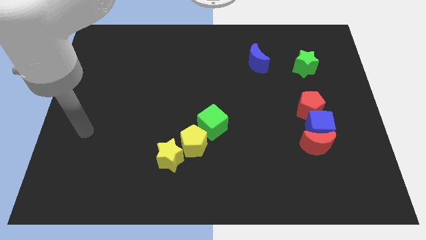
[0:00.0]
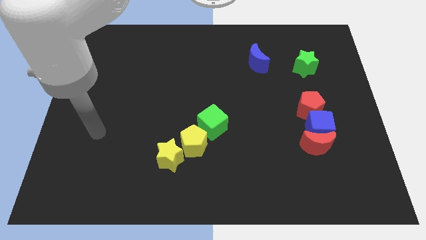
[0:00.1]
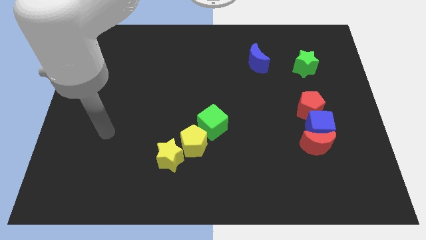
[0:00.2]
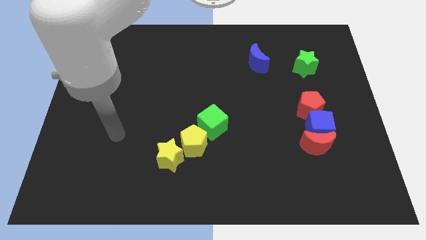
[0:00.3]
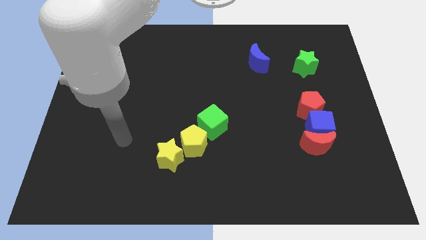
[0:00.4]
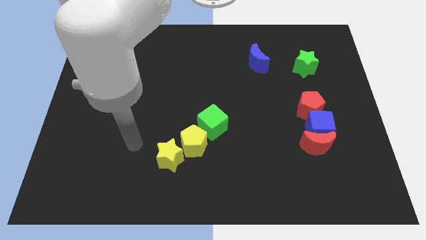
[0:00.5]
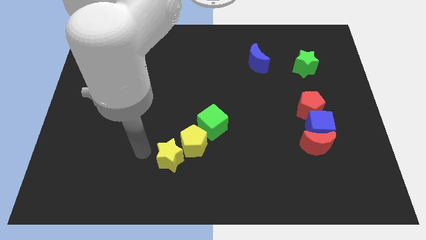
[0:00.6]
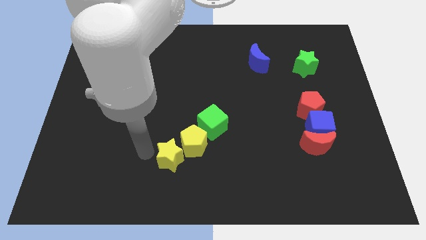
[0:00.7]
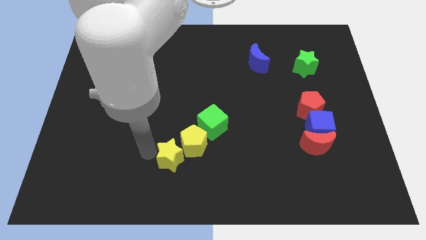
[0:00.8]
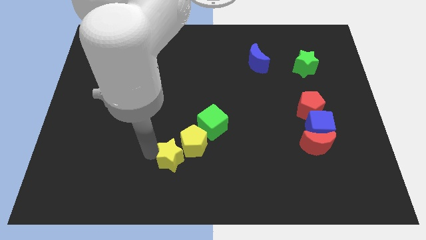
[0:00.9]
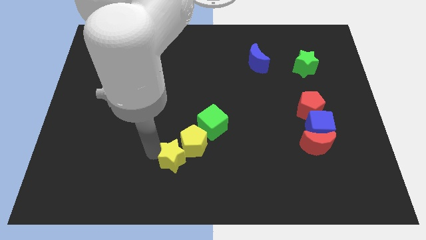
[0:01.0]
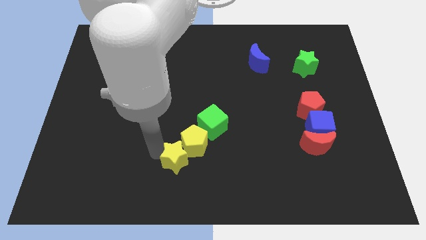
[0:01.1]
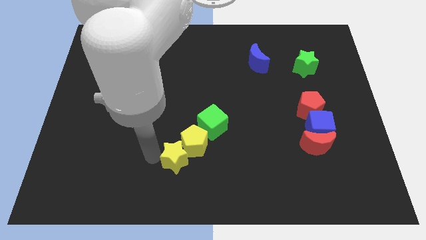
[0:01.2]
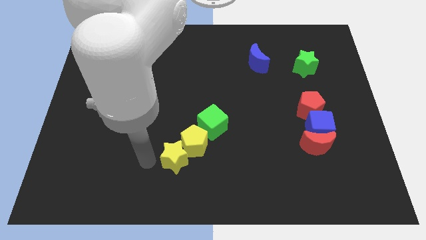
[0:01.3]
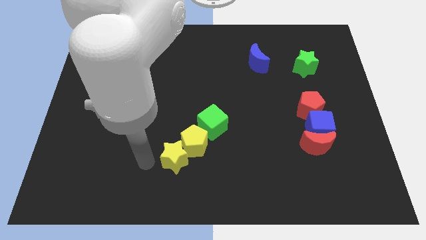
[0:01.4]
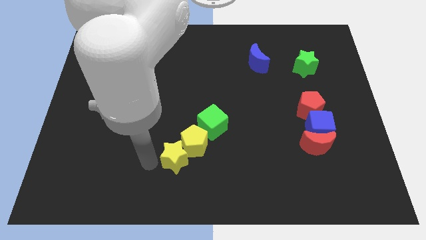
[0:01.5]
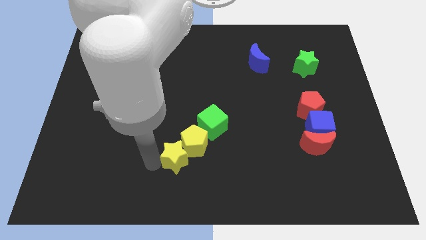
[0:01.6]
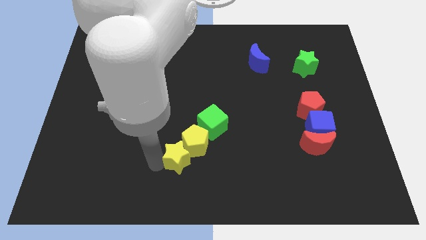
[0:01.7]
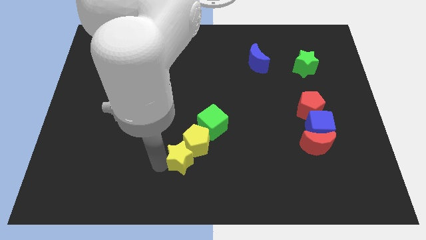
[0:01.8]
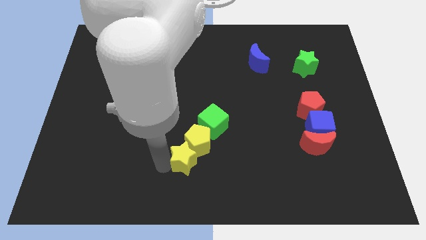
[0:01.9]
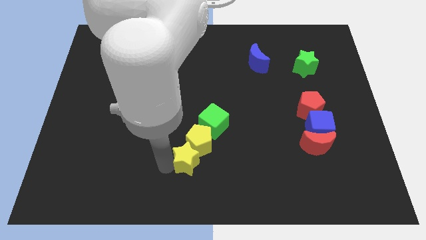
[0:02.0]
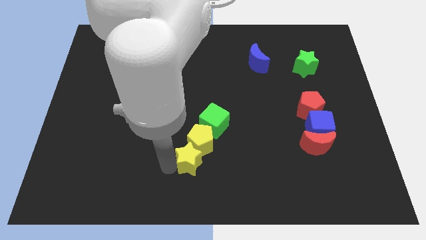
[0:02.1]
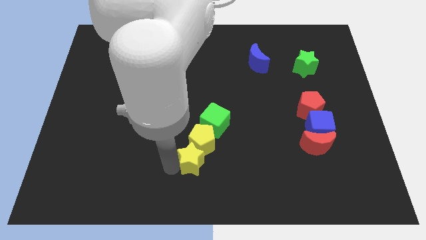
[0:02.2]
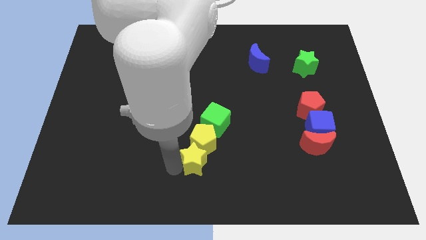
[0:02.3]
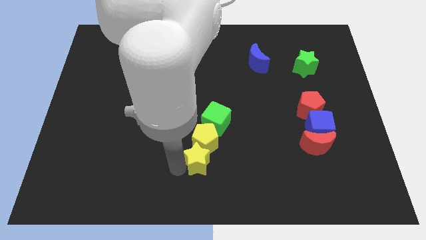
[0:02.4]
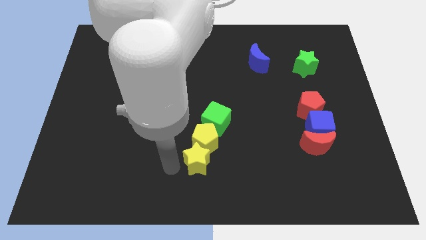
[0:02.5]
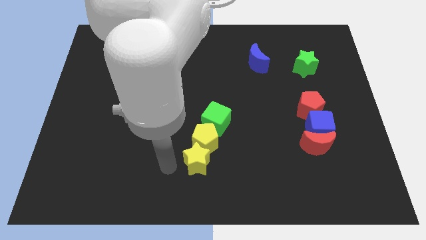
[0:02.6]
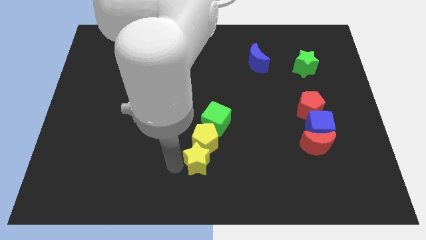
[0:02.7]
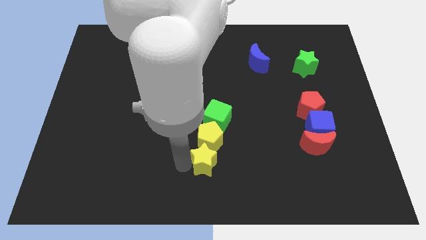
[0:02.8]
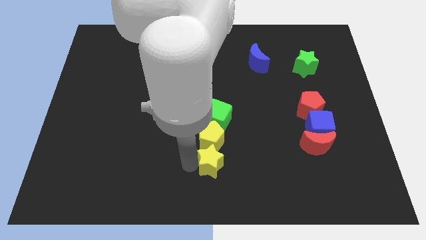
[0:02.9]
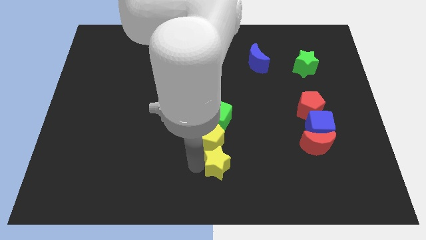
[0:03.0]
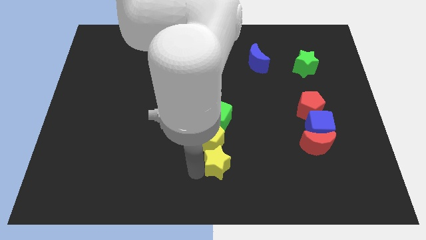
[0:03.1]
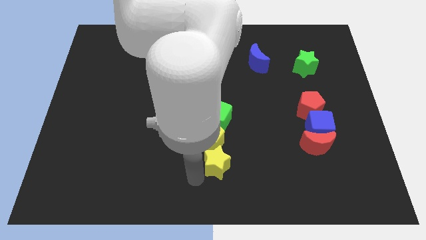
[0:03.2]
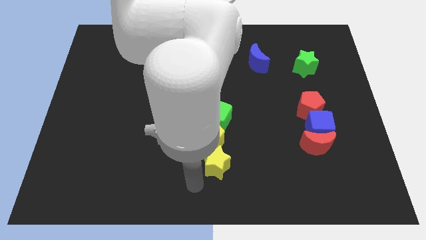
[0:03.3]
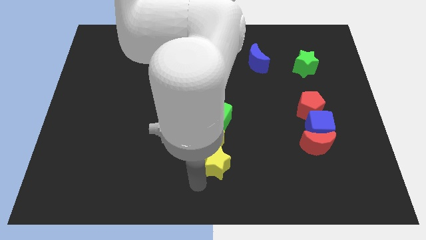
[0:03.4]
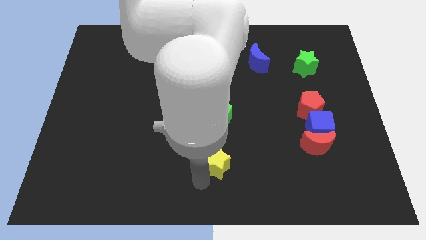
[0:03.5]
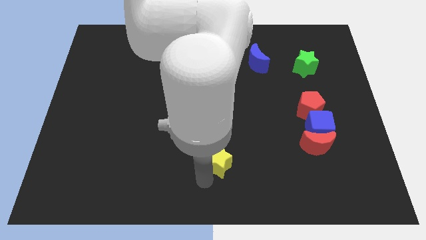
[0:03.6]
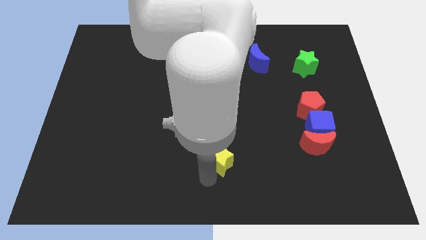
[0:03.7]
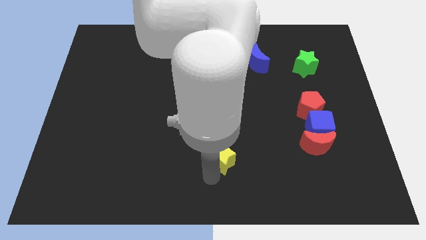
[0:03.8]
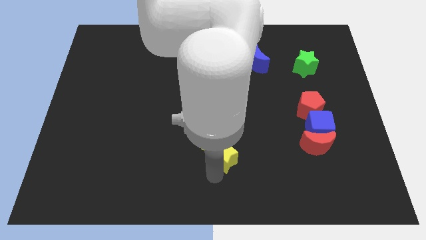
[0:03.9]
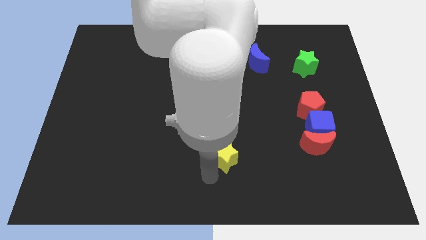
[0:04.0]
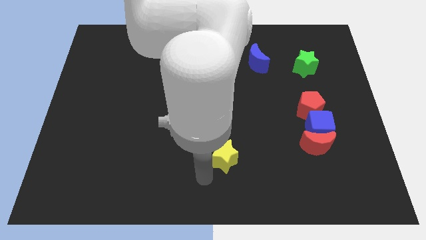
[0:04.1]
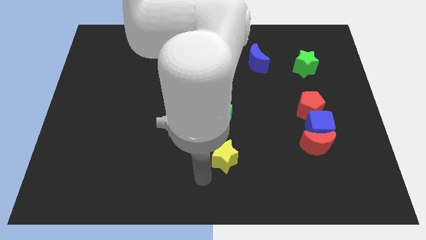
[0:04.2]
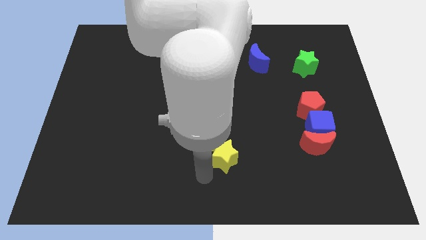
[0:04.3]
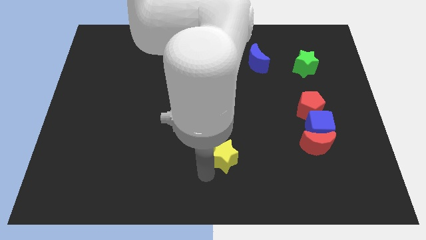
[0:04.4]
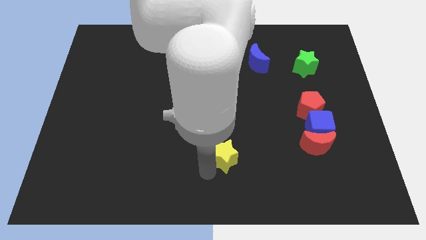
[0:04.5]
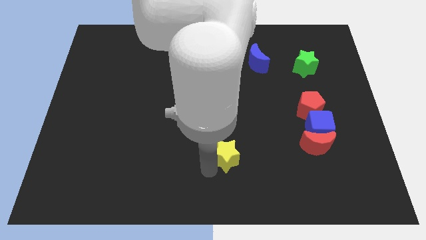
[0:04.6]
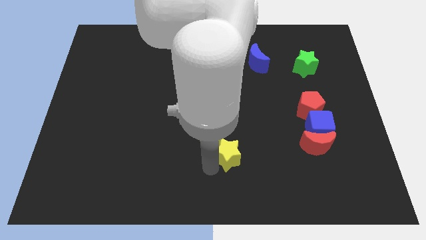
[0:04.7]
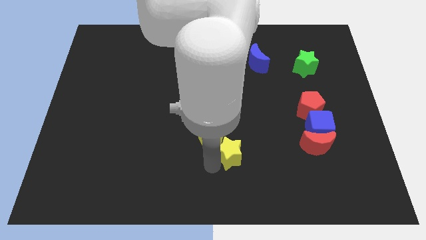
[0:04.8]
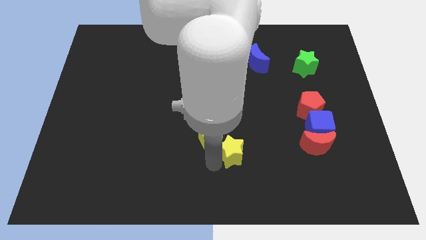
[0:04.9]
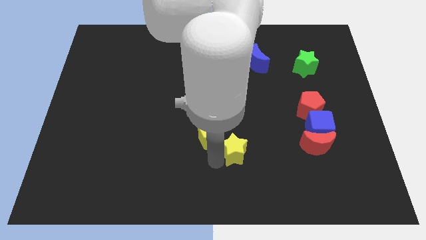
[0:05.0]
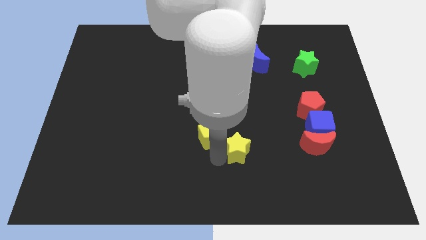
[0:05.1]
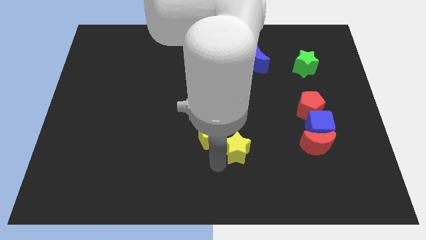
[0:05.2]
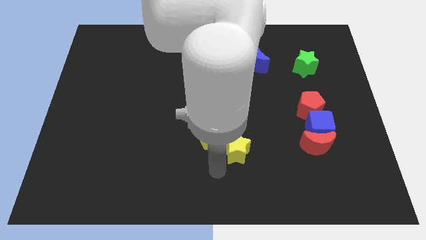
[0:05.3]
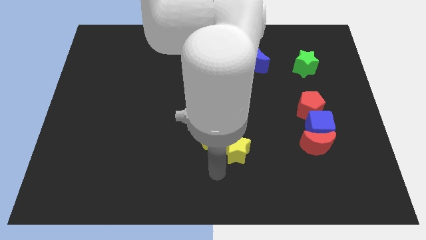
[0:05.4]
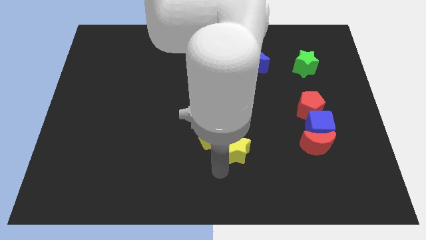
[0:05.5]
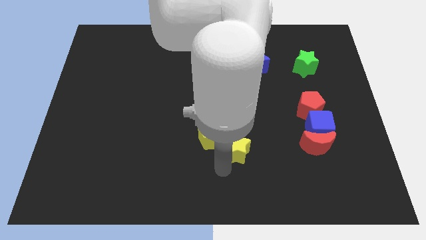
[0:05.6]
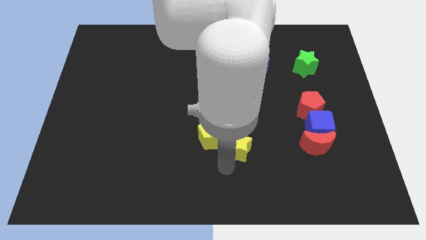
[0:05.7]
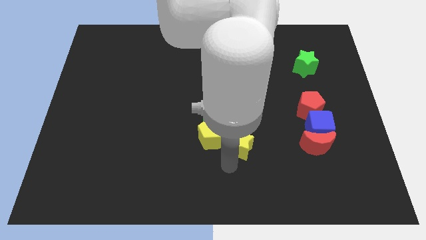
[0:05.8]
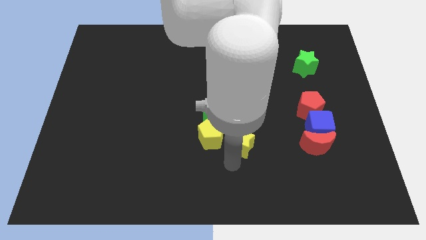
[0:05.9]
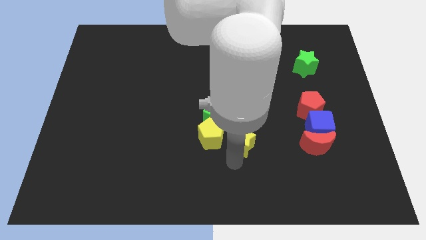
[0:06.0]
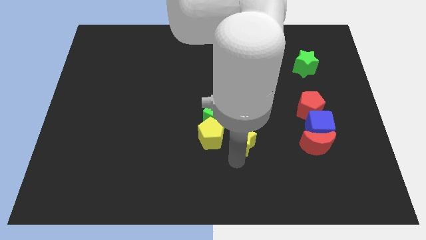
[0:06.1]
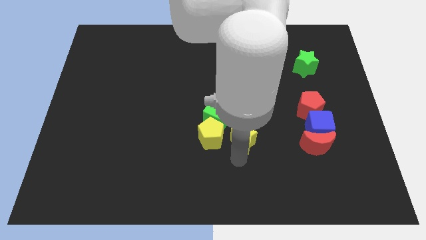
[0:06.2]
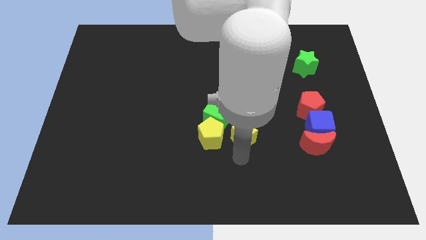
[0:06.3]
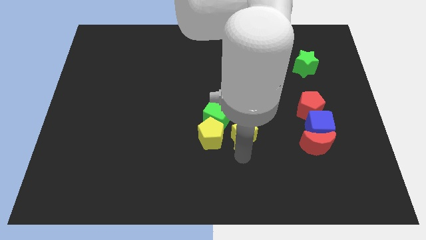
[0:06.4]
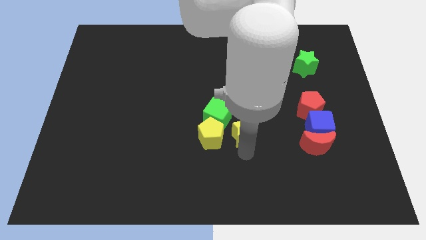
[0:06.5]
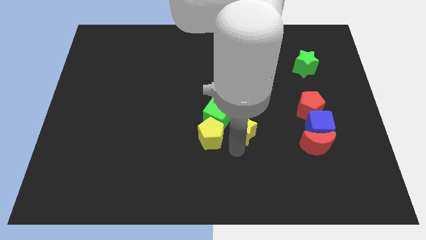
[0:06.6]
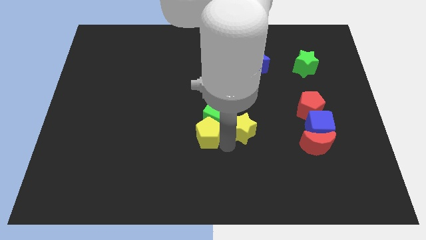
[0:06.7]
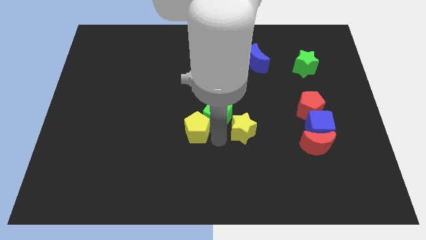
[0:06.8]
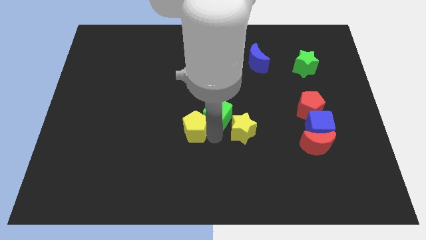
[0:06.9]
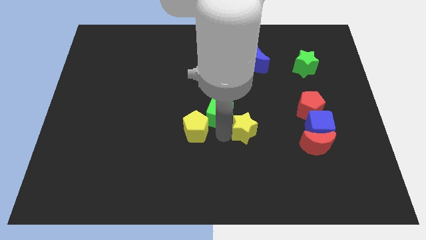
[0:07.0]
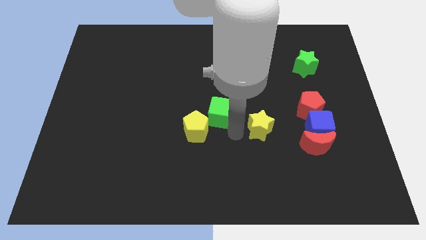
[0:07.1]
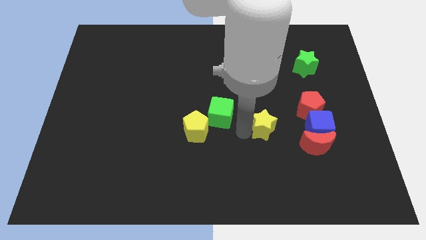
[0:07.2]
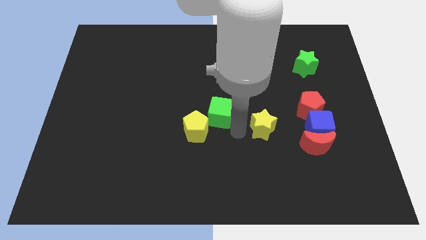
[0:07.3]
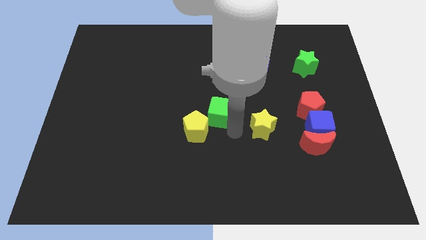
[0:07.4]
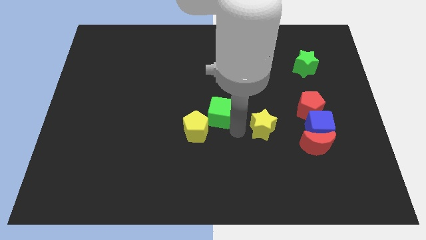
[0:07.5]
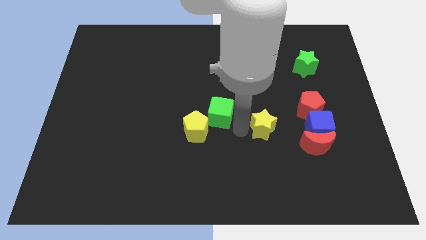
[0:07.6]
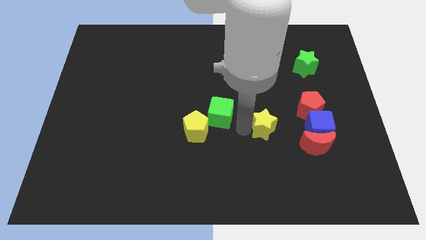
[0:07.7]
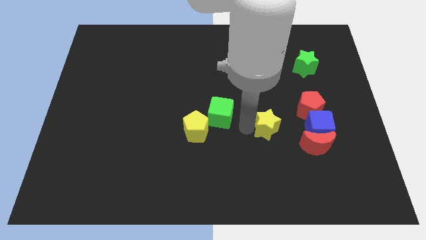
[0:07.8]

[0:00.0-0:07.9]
move the yellow star to the top left side of the red moon
